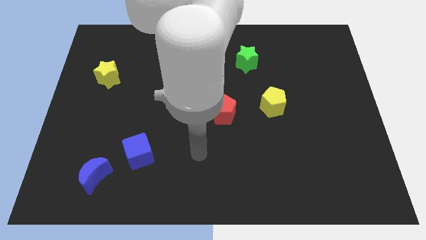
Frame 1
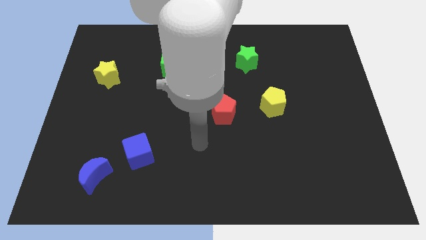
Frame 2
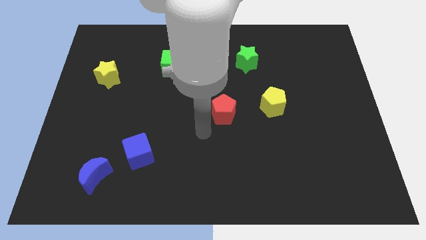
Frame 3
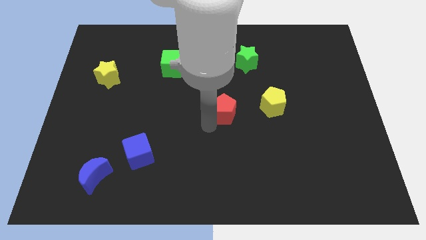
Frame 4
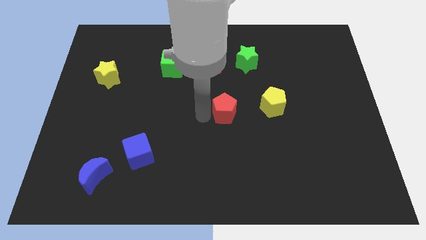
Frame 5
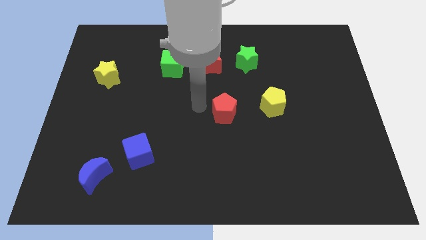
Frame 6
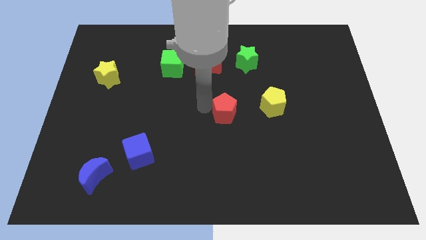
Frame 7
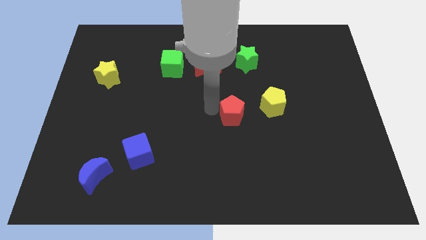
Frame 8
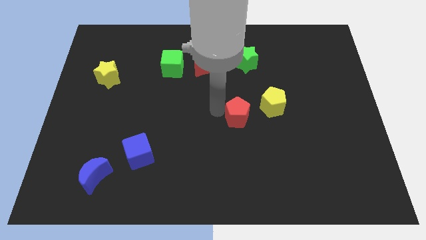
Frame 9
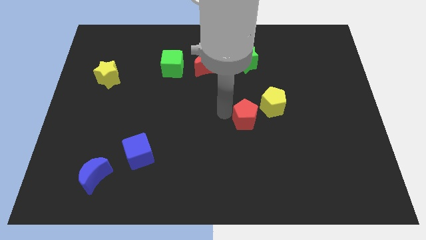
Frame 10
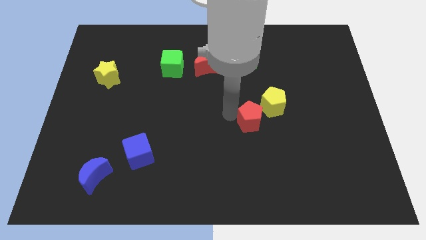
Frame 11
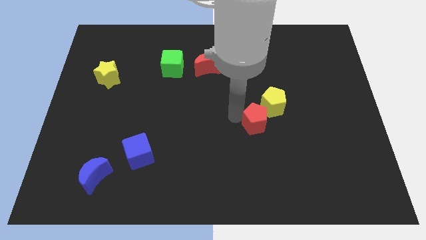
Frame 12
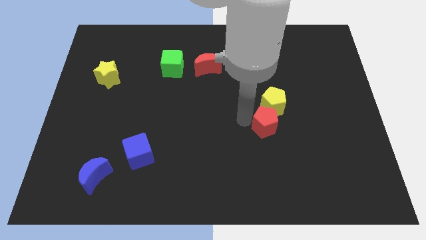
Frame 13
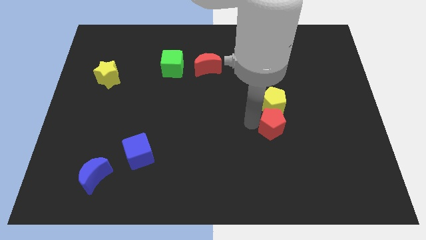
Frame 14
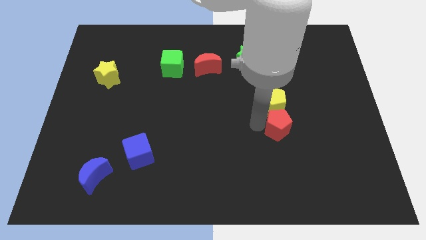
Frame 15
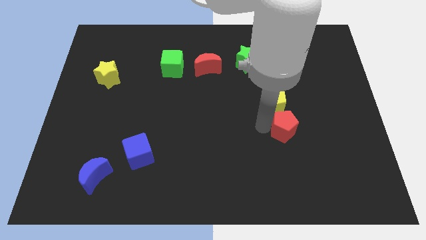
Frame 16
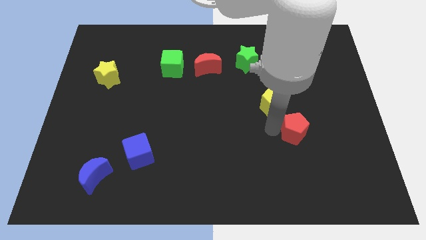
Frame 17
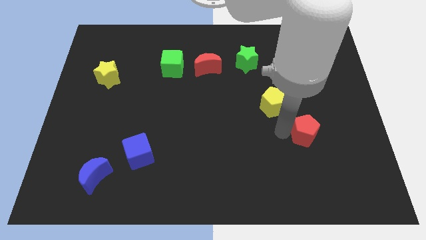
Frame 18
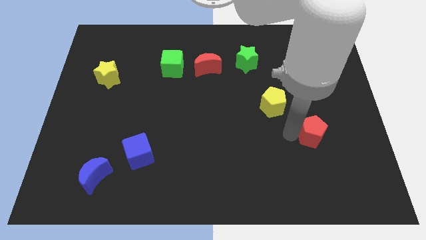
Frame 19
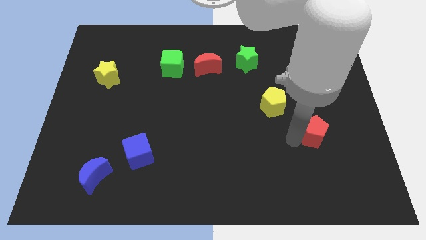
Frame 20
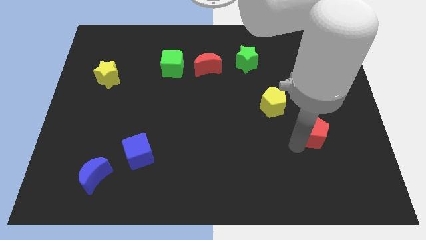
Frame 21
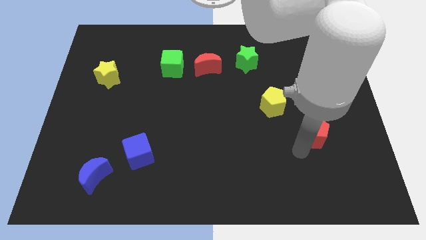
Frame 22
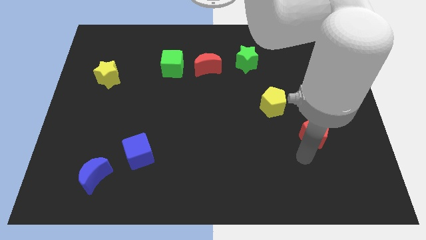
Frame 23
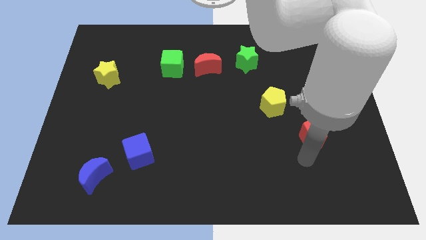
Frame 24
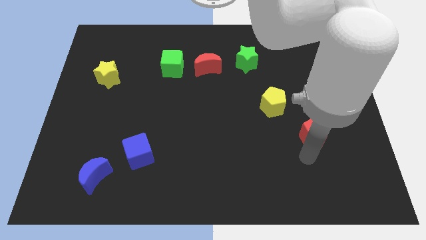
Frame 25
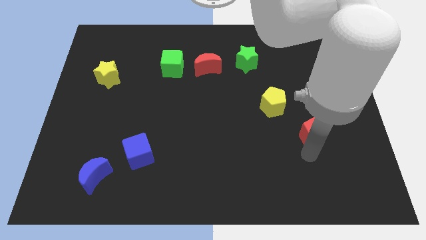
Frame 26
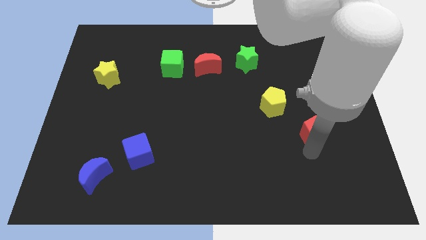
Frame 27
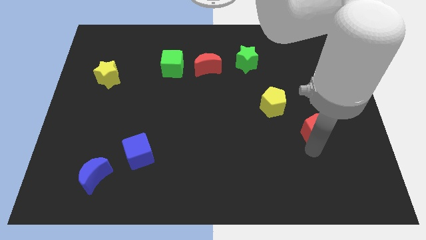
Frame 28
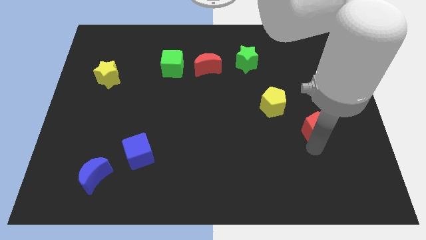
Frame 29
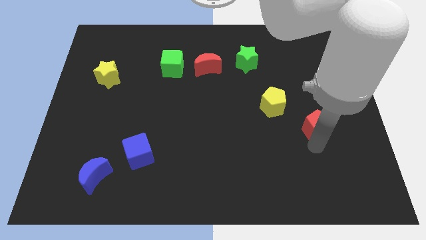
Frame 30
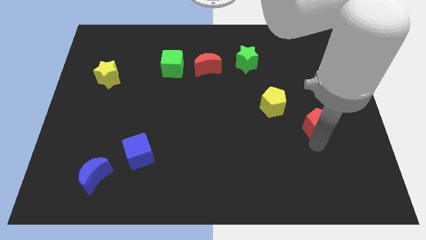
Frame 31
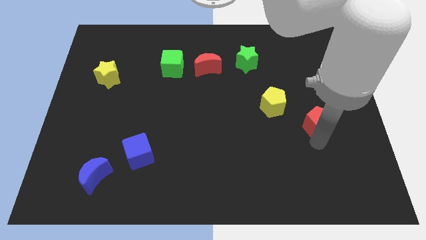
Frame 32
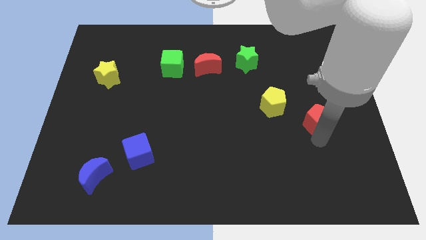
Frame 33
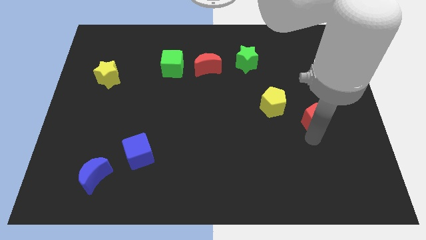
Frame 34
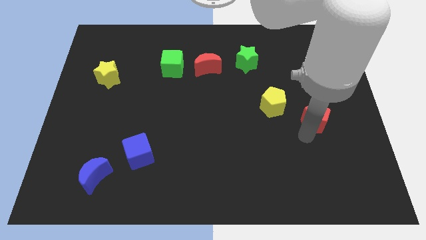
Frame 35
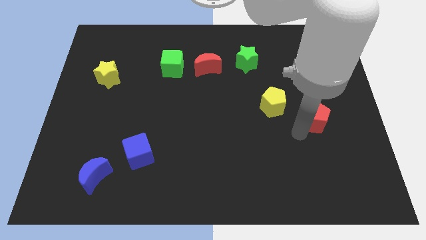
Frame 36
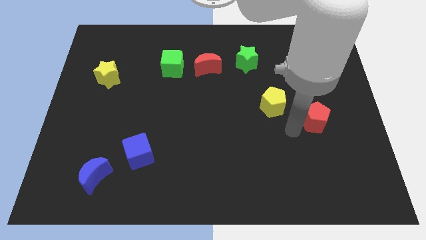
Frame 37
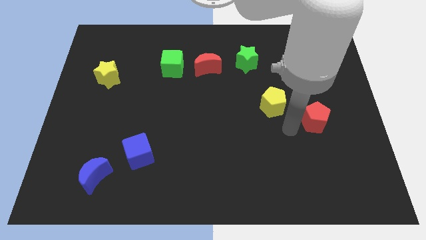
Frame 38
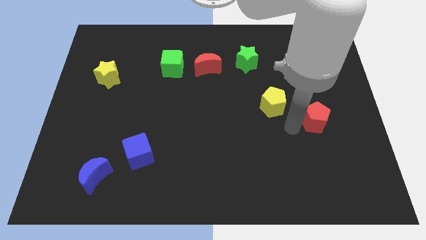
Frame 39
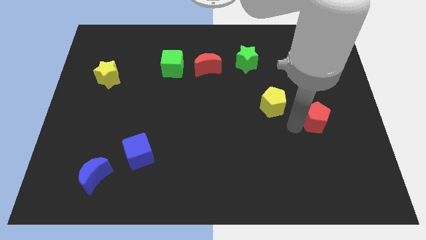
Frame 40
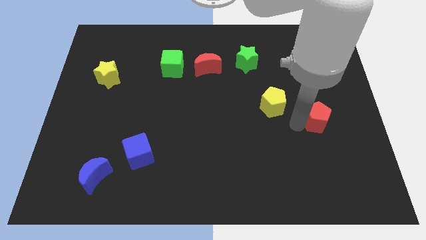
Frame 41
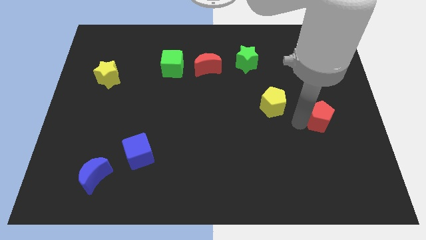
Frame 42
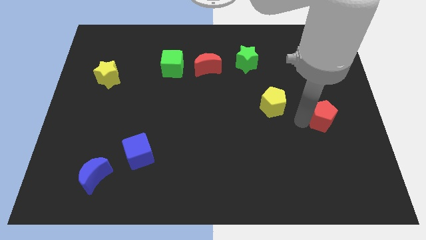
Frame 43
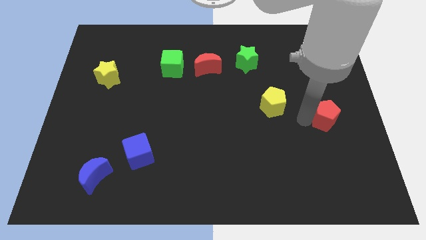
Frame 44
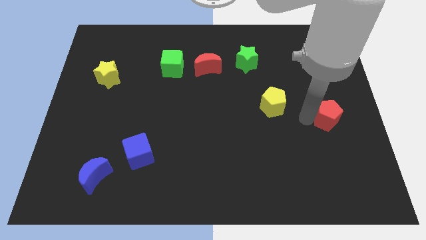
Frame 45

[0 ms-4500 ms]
slide the red pentagon to the right side of the board

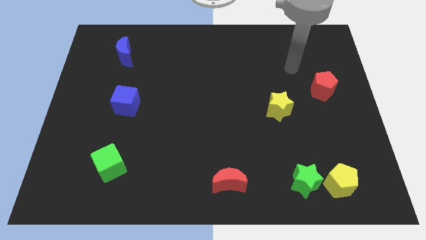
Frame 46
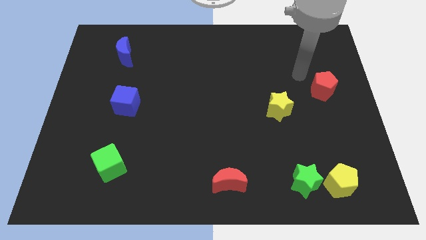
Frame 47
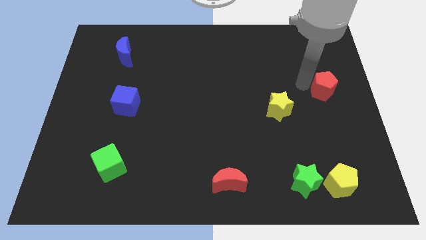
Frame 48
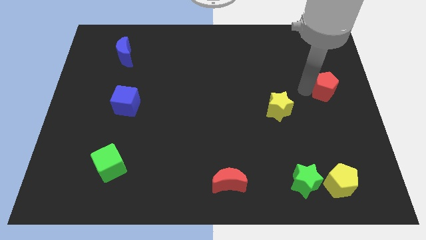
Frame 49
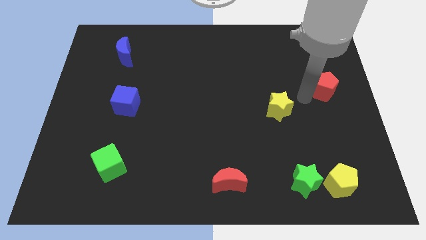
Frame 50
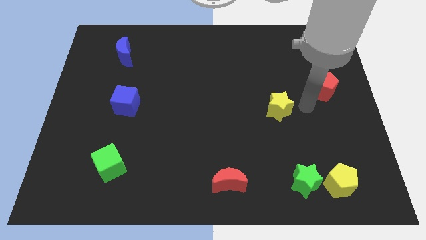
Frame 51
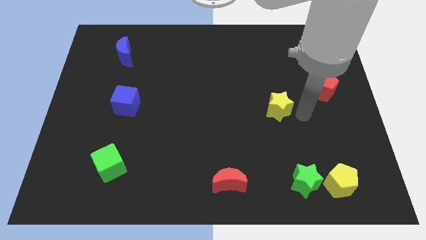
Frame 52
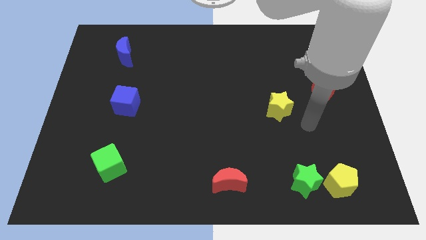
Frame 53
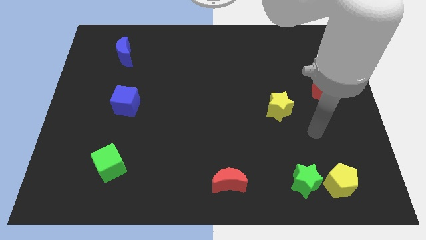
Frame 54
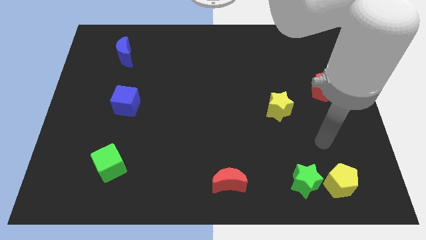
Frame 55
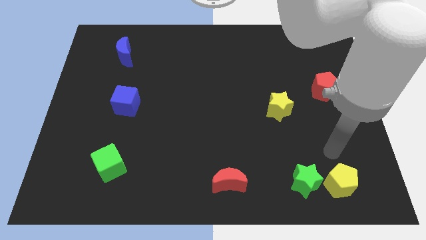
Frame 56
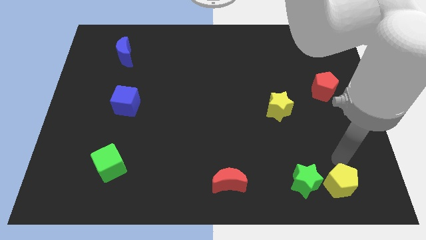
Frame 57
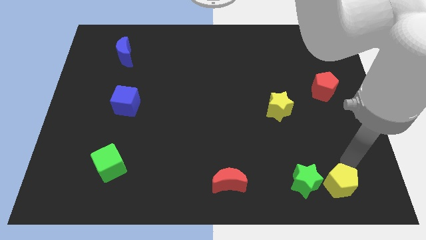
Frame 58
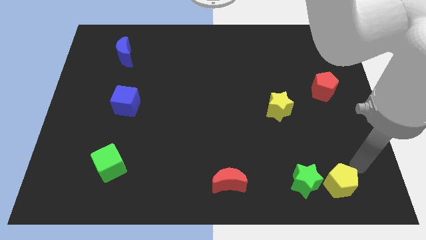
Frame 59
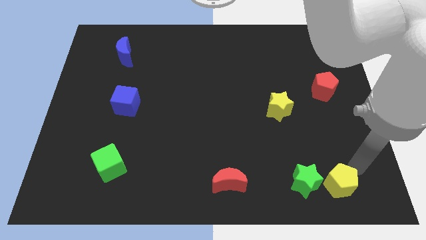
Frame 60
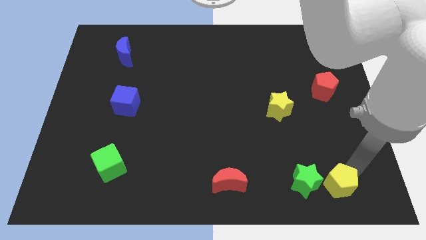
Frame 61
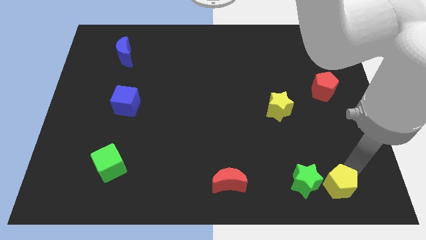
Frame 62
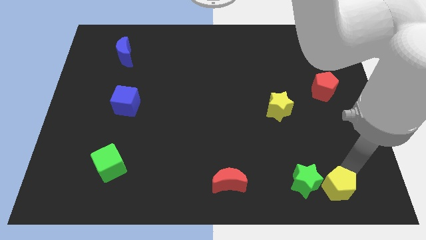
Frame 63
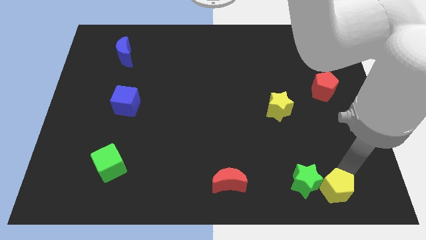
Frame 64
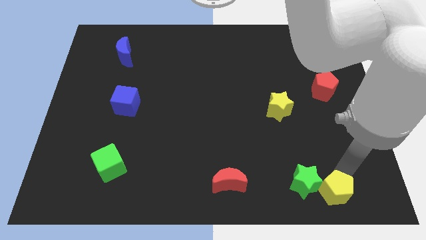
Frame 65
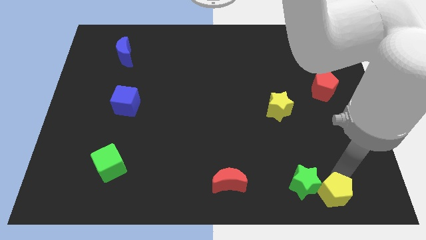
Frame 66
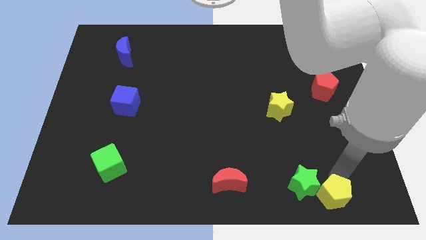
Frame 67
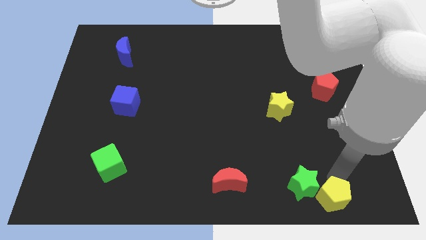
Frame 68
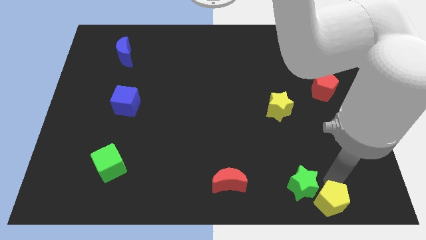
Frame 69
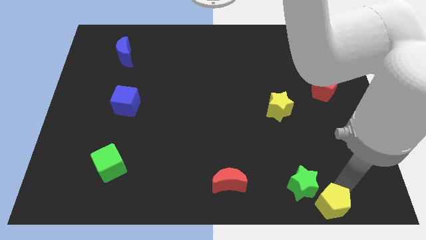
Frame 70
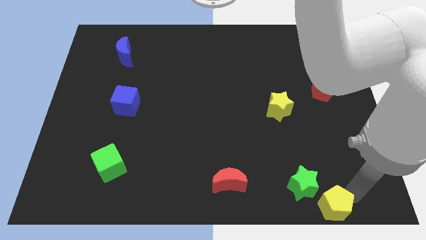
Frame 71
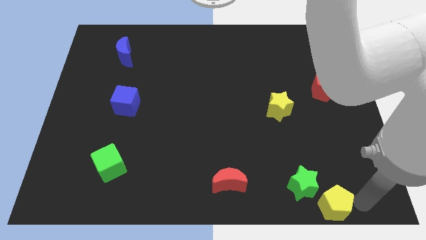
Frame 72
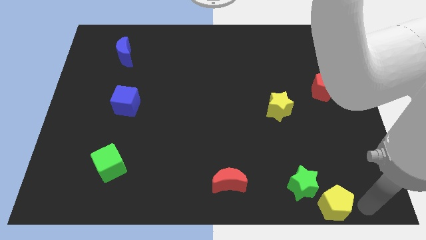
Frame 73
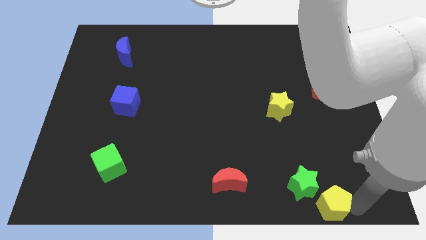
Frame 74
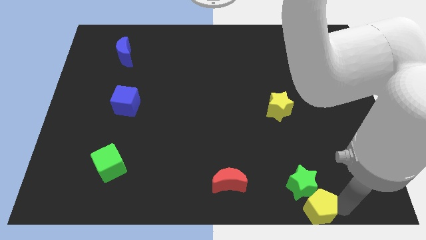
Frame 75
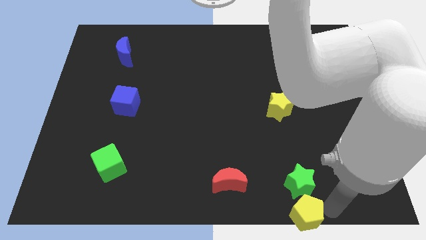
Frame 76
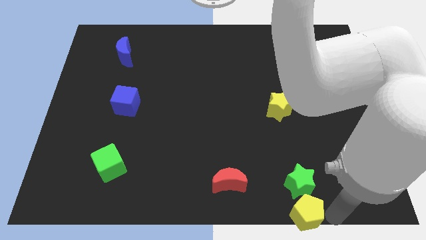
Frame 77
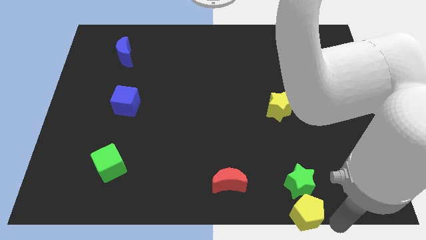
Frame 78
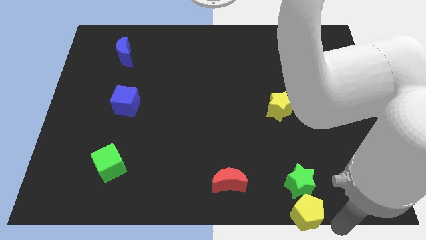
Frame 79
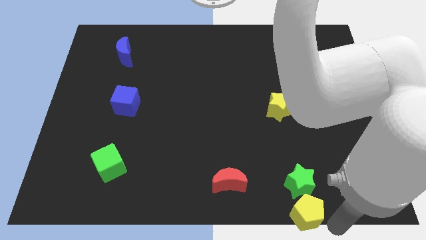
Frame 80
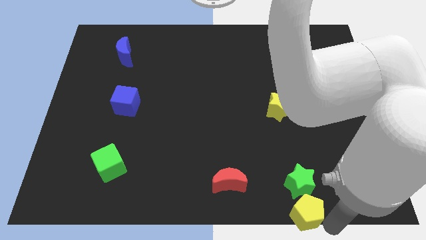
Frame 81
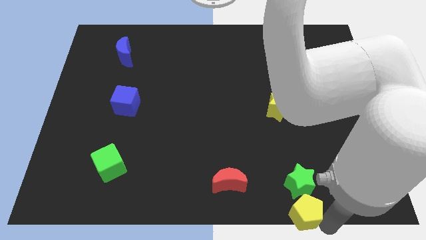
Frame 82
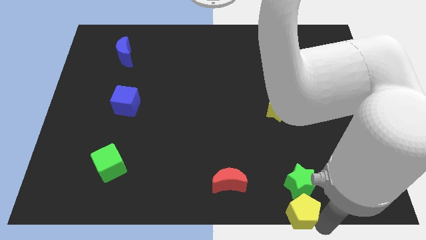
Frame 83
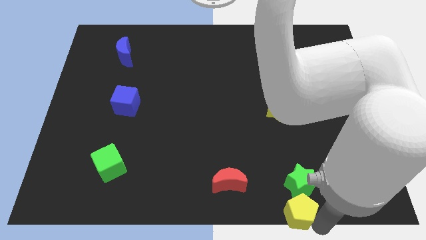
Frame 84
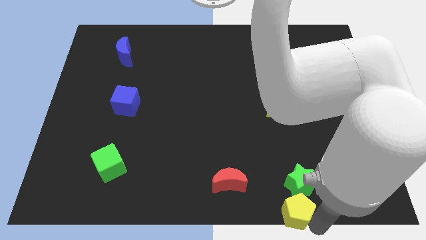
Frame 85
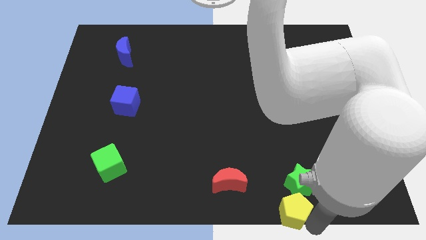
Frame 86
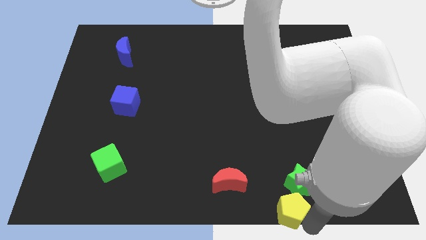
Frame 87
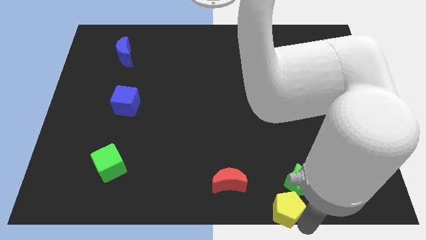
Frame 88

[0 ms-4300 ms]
move the yellow pentagon to the bottom side
